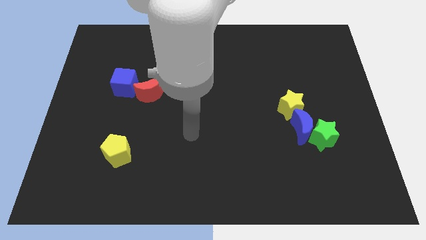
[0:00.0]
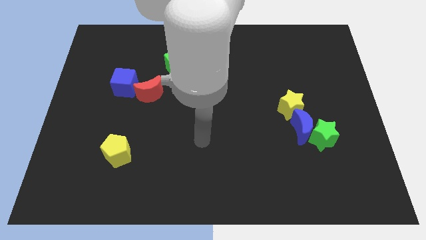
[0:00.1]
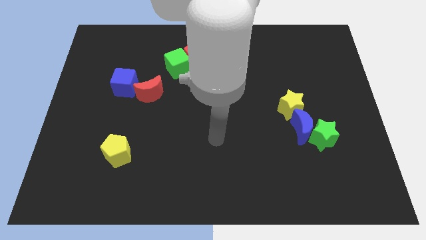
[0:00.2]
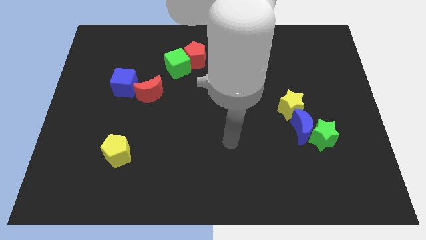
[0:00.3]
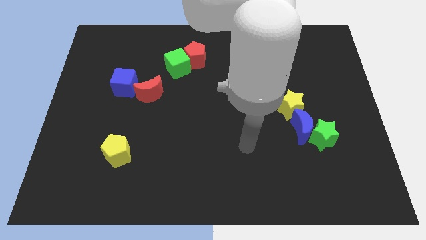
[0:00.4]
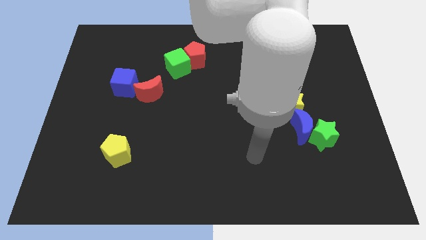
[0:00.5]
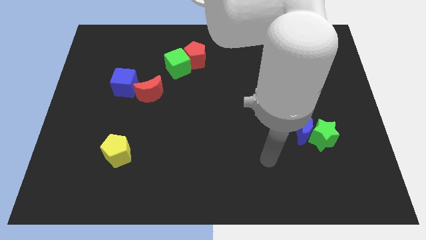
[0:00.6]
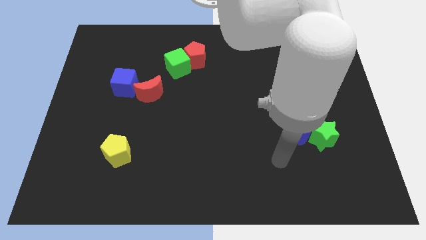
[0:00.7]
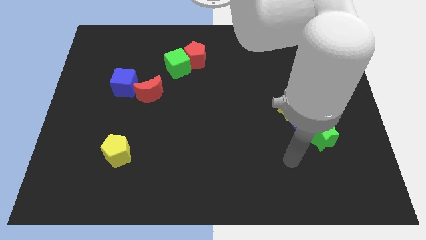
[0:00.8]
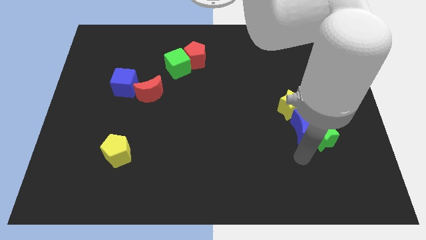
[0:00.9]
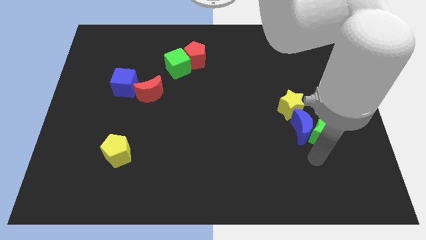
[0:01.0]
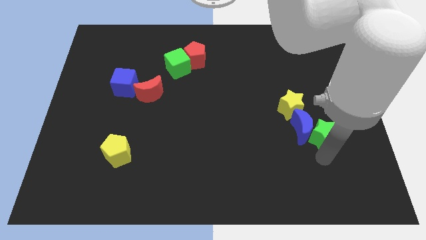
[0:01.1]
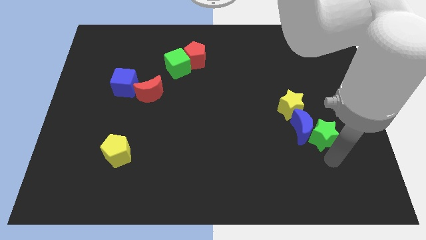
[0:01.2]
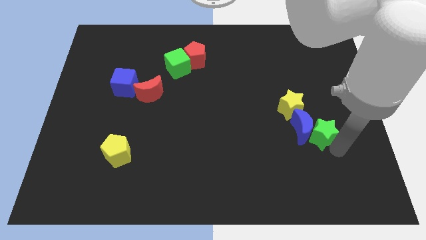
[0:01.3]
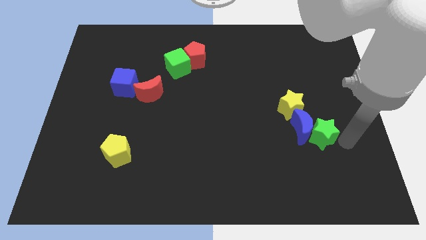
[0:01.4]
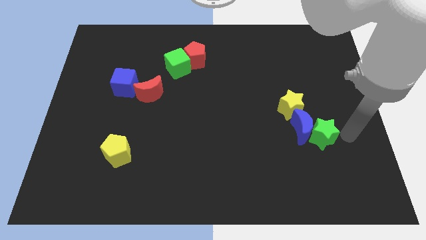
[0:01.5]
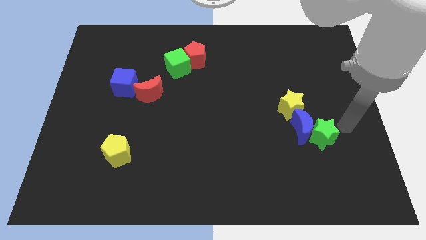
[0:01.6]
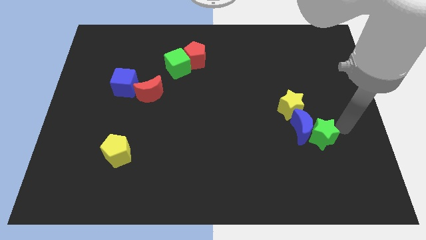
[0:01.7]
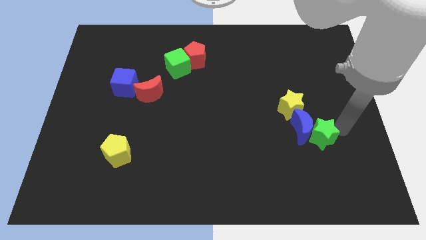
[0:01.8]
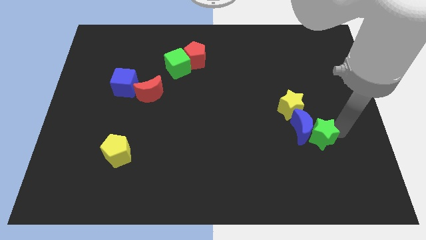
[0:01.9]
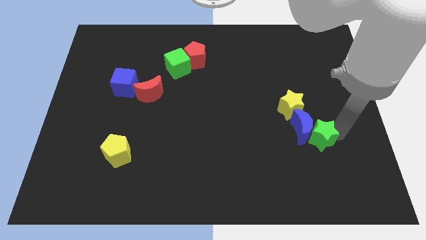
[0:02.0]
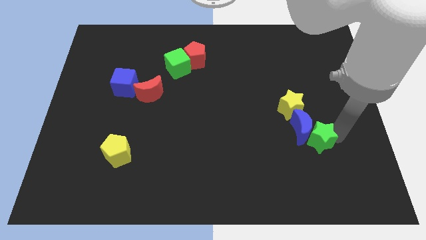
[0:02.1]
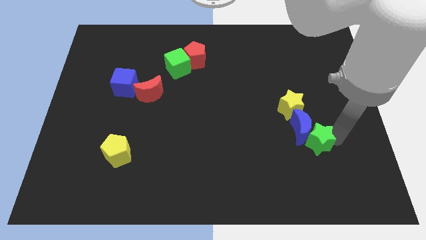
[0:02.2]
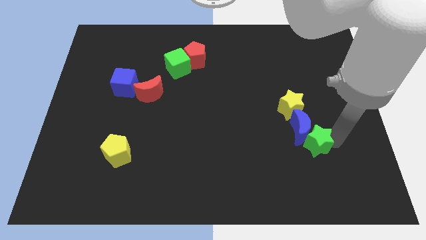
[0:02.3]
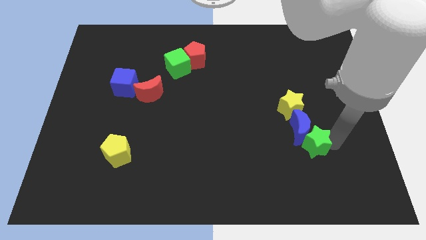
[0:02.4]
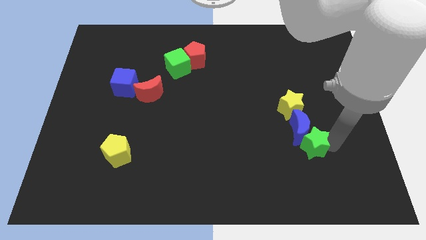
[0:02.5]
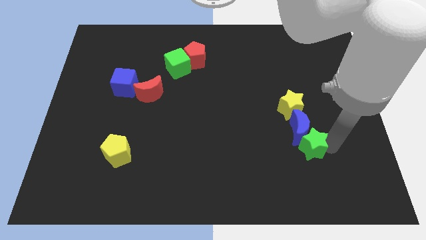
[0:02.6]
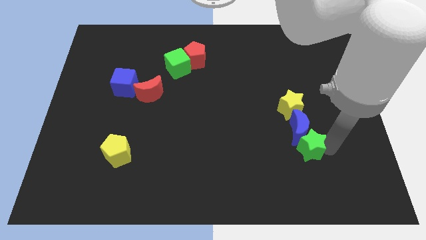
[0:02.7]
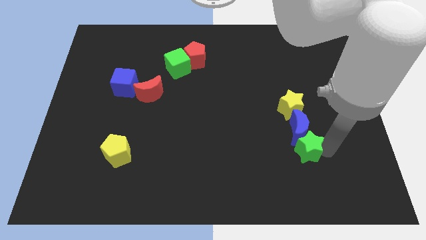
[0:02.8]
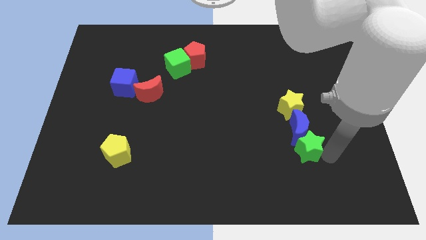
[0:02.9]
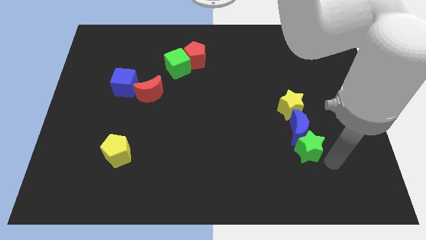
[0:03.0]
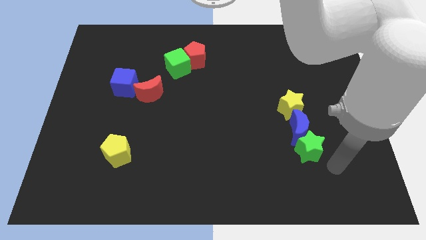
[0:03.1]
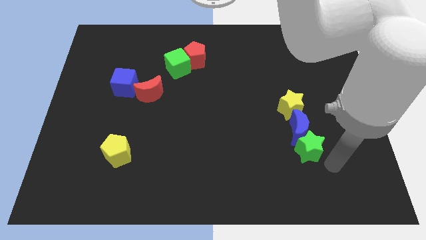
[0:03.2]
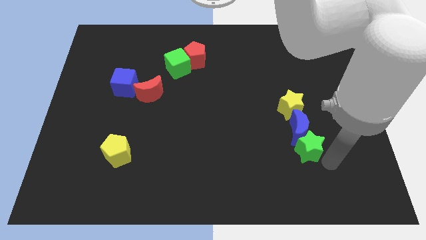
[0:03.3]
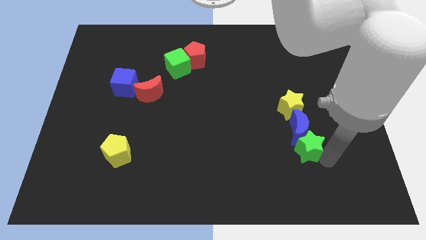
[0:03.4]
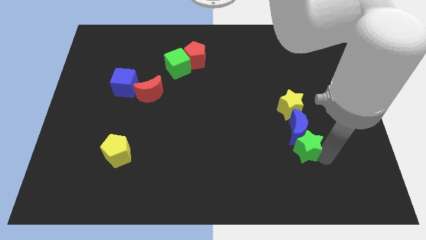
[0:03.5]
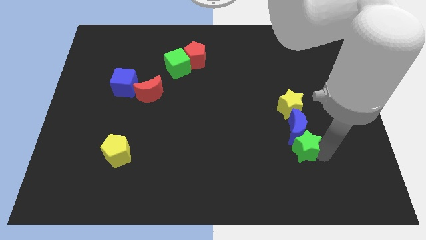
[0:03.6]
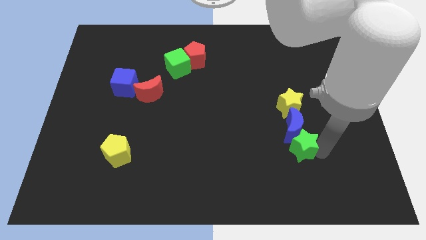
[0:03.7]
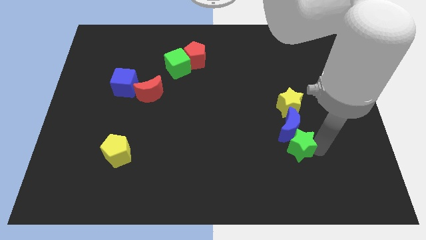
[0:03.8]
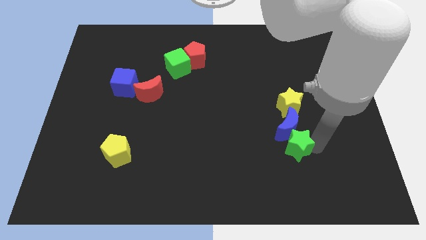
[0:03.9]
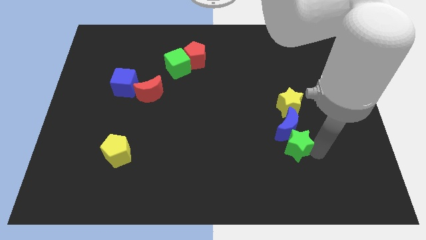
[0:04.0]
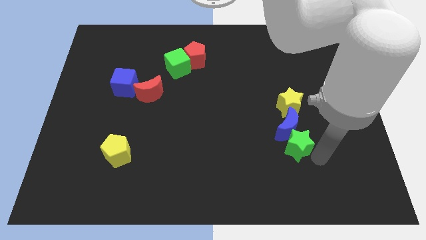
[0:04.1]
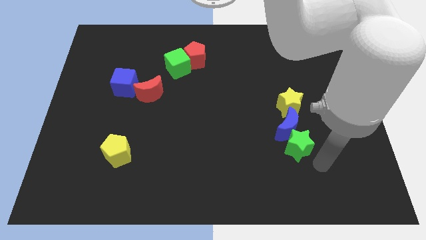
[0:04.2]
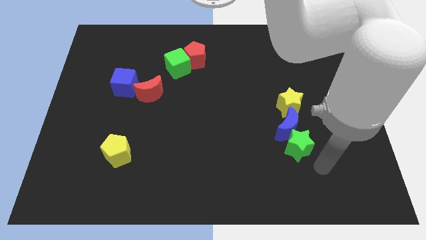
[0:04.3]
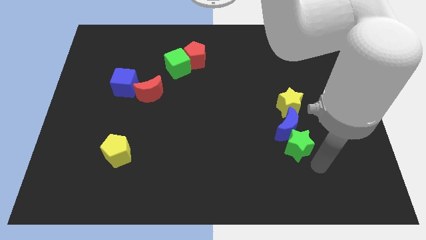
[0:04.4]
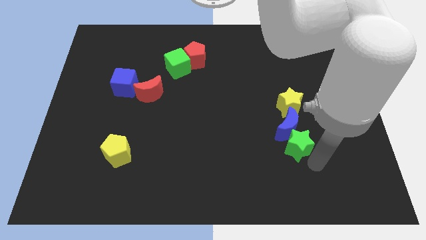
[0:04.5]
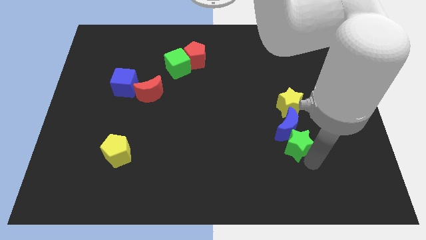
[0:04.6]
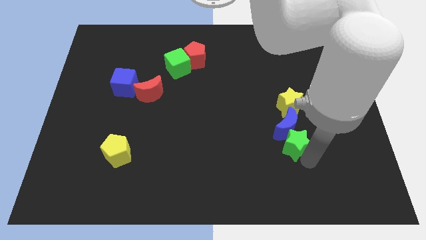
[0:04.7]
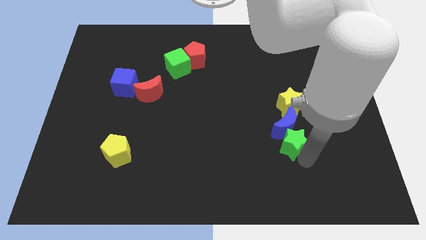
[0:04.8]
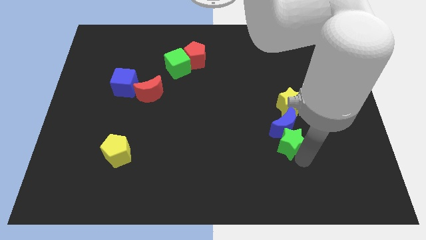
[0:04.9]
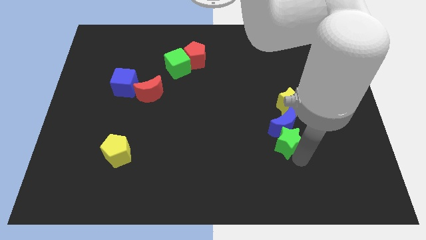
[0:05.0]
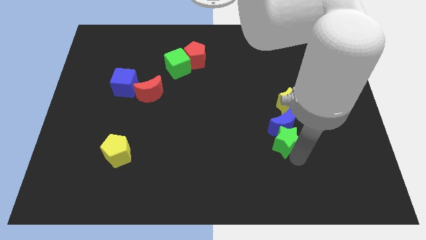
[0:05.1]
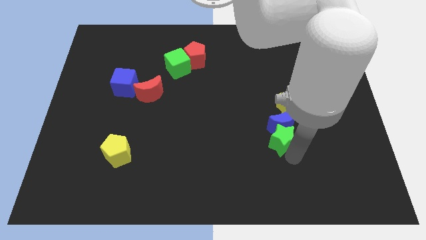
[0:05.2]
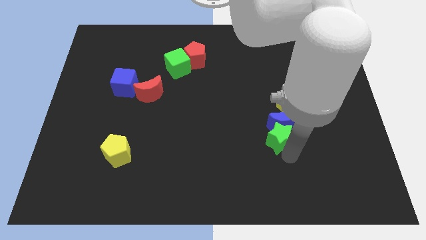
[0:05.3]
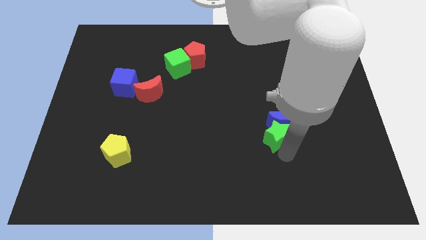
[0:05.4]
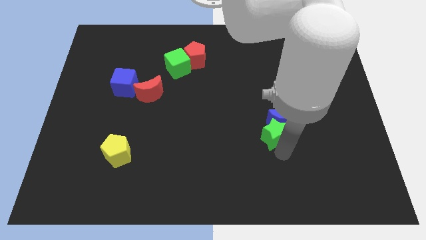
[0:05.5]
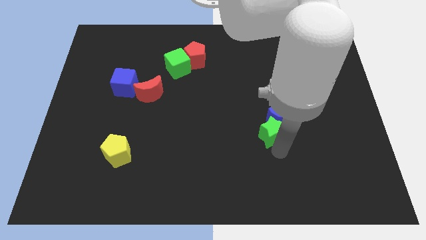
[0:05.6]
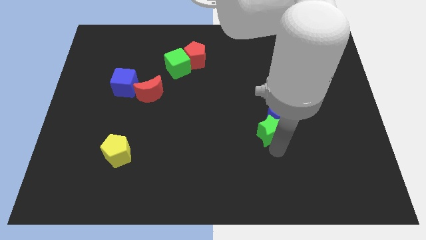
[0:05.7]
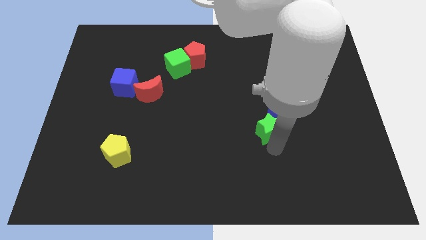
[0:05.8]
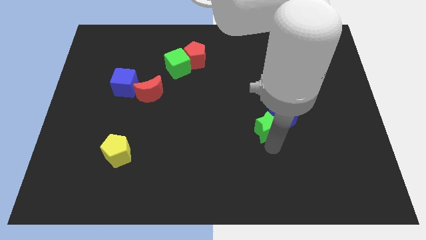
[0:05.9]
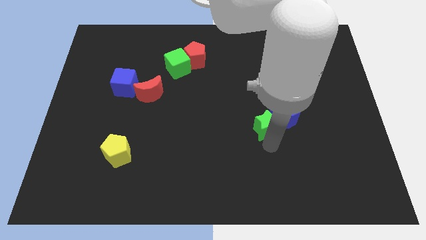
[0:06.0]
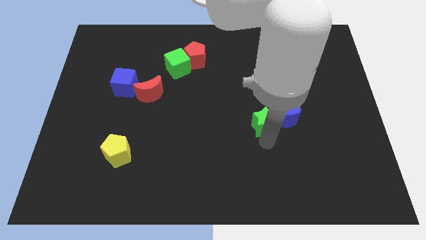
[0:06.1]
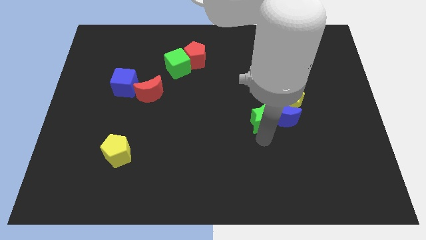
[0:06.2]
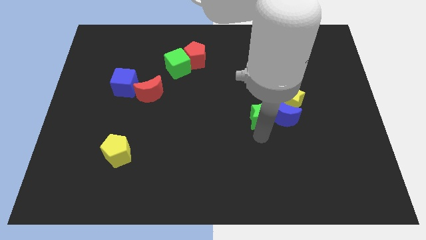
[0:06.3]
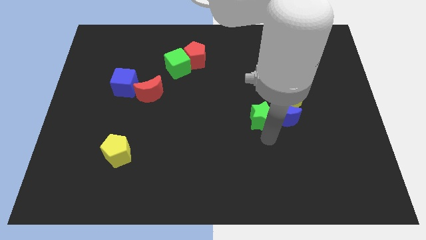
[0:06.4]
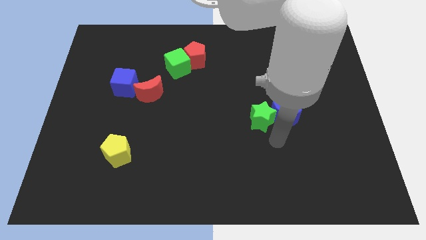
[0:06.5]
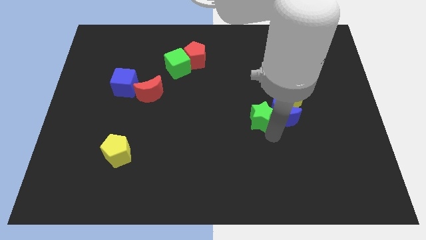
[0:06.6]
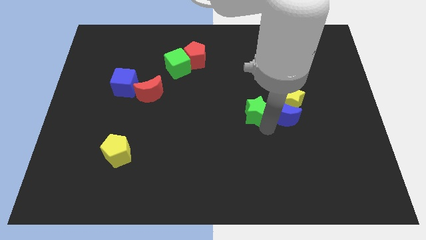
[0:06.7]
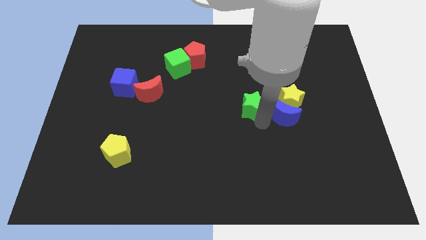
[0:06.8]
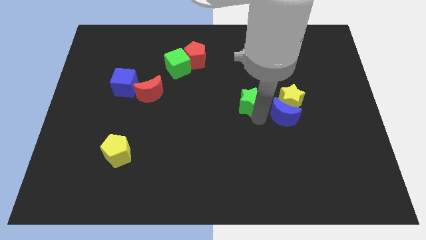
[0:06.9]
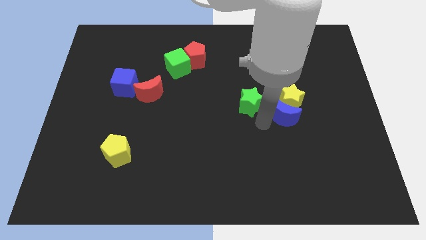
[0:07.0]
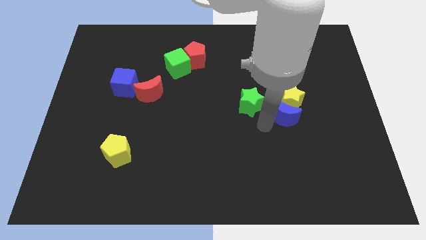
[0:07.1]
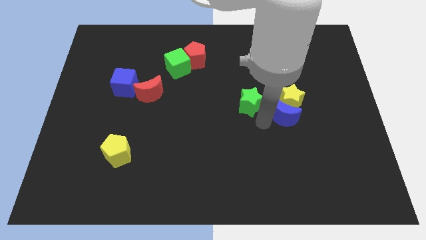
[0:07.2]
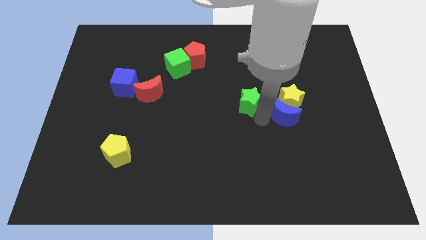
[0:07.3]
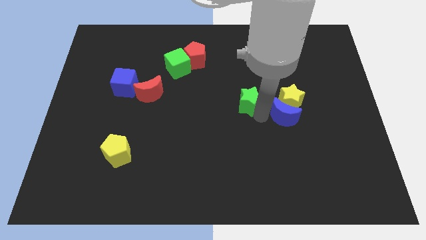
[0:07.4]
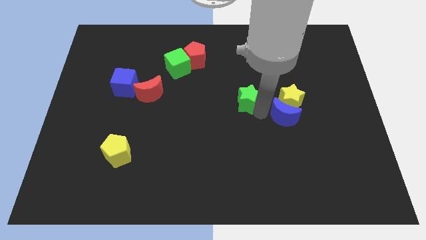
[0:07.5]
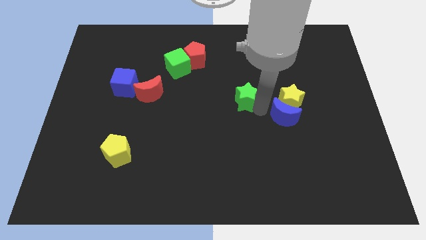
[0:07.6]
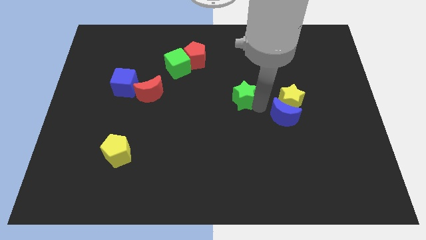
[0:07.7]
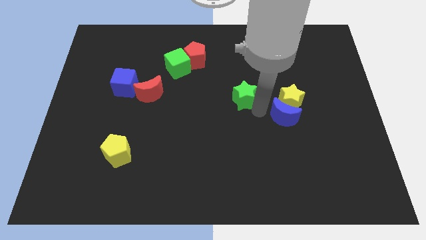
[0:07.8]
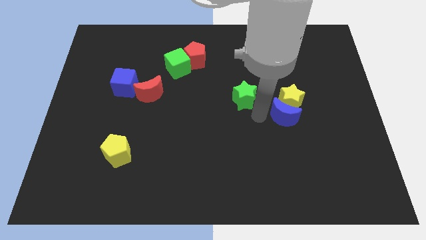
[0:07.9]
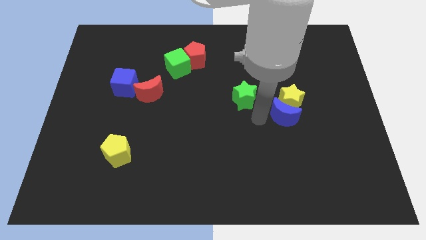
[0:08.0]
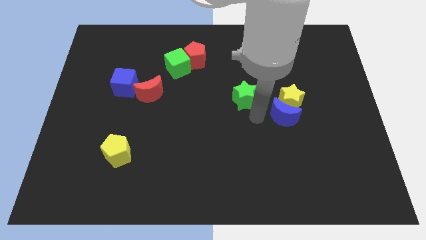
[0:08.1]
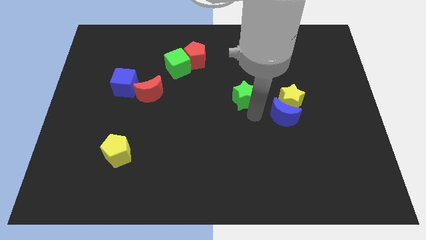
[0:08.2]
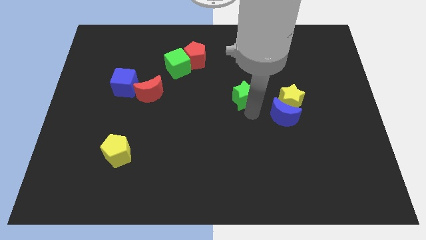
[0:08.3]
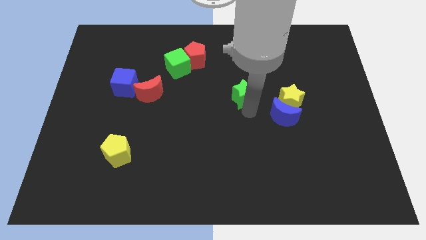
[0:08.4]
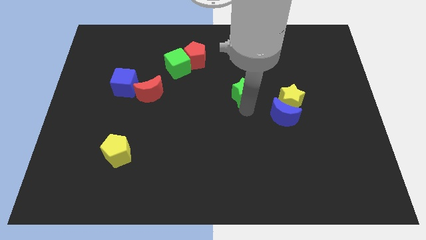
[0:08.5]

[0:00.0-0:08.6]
slide the green star up and then left
